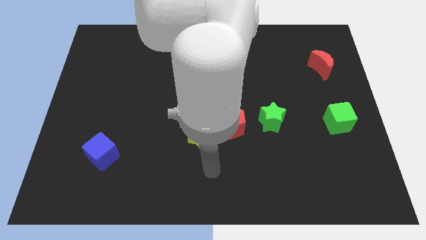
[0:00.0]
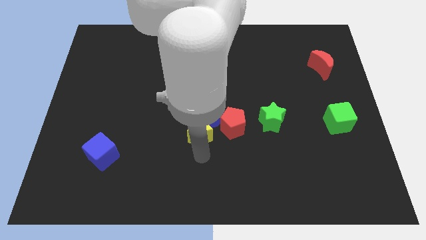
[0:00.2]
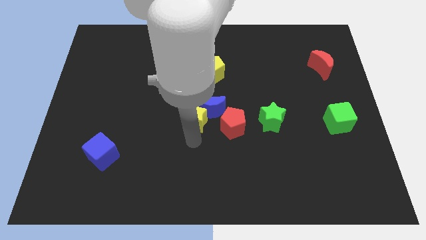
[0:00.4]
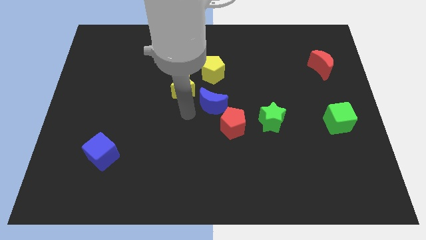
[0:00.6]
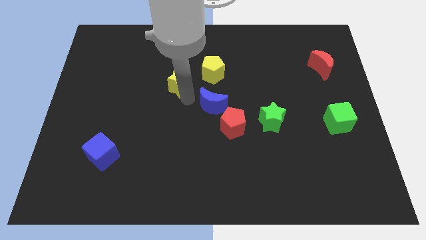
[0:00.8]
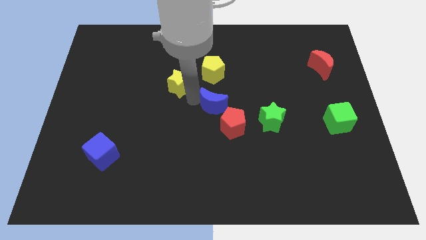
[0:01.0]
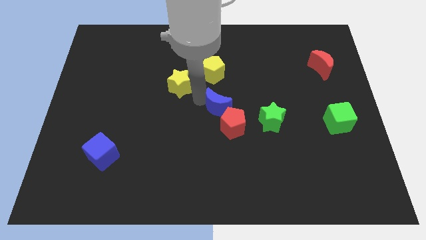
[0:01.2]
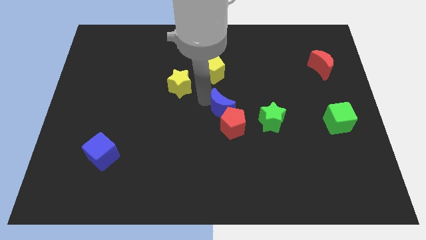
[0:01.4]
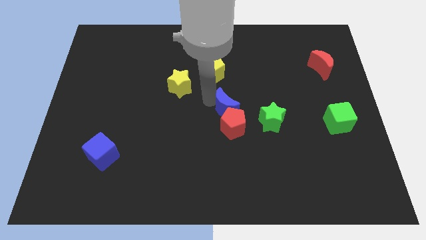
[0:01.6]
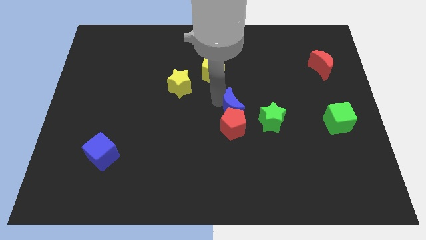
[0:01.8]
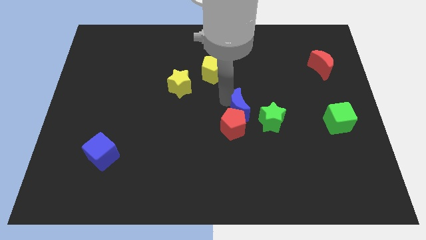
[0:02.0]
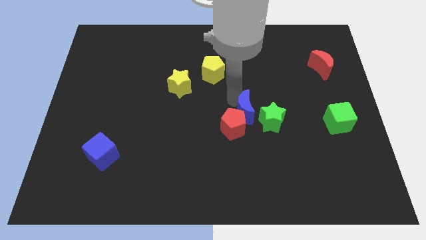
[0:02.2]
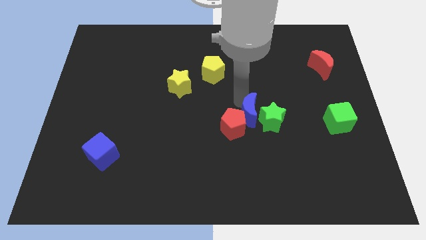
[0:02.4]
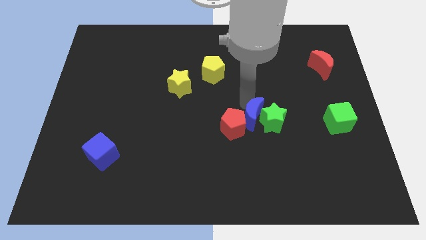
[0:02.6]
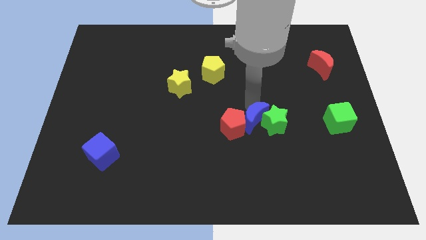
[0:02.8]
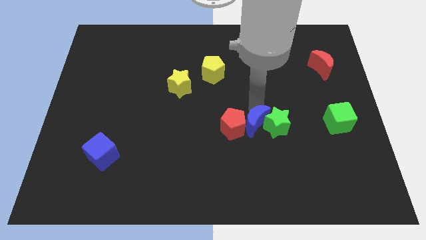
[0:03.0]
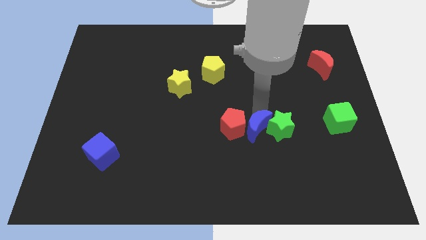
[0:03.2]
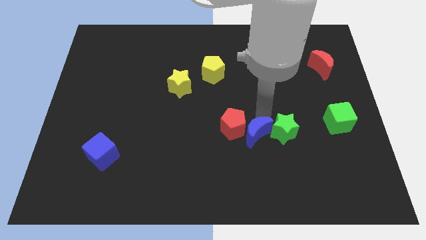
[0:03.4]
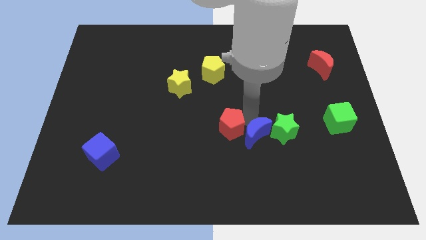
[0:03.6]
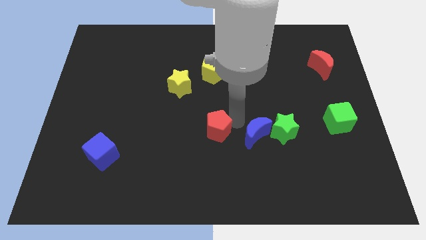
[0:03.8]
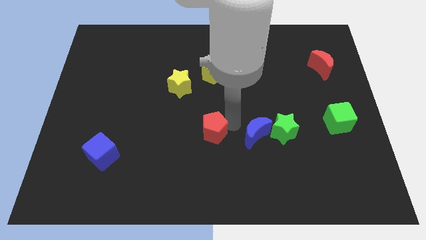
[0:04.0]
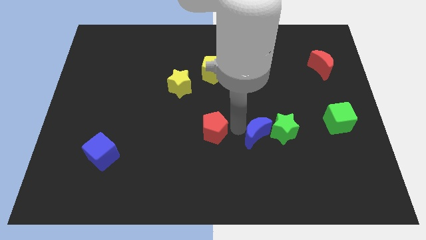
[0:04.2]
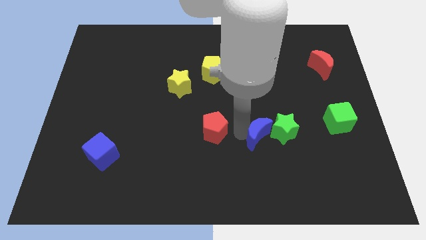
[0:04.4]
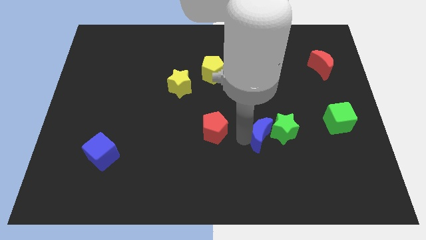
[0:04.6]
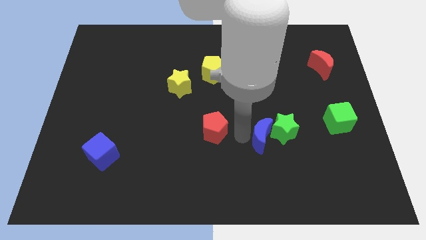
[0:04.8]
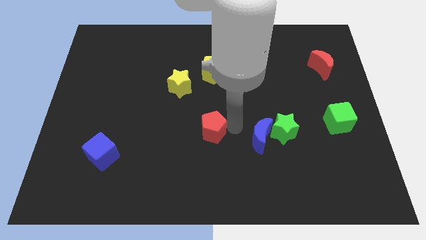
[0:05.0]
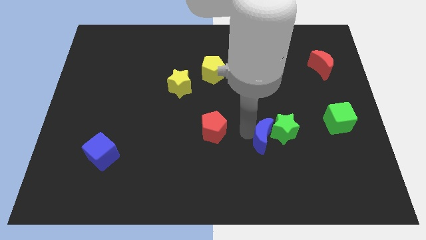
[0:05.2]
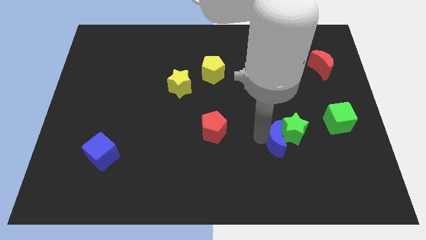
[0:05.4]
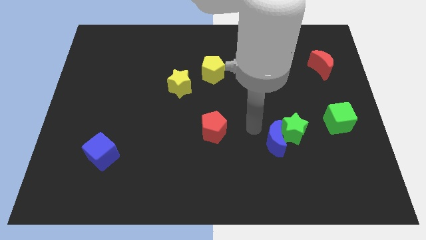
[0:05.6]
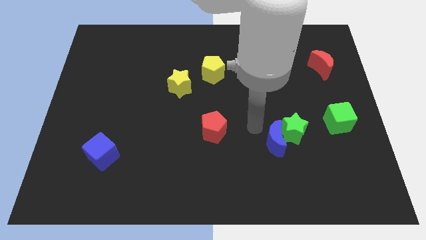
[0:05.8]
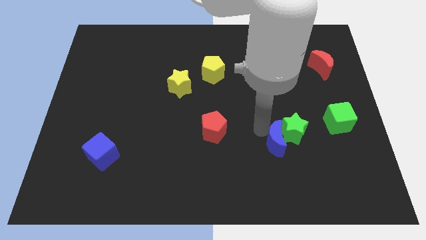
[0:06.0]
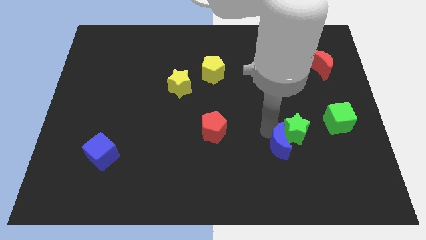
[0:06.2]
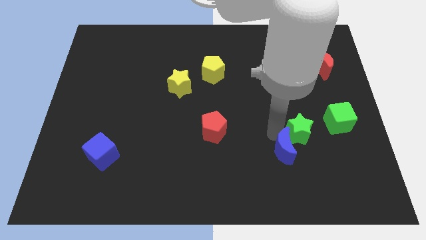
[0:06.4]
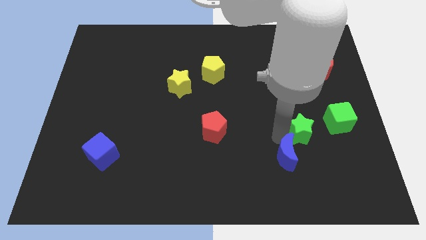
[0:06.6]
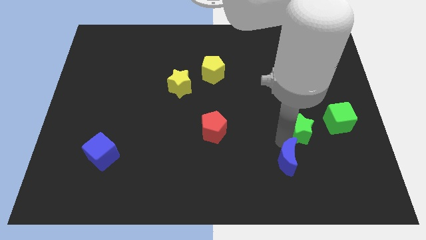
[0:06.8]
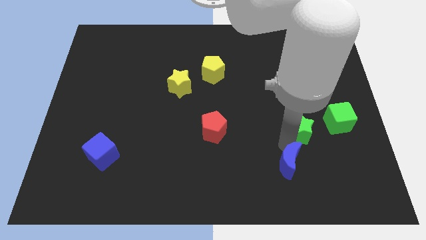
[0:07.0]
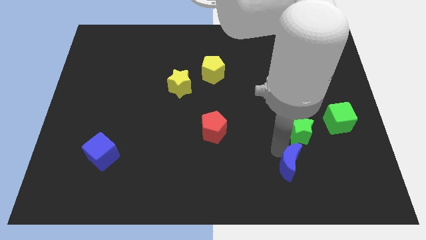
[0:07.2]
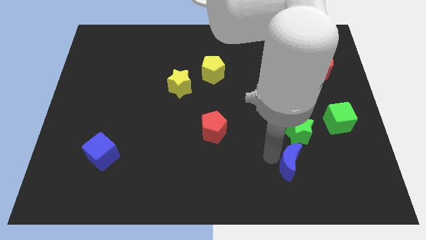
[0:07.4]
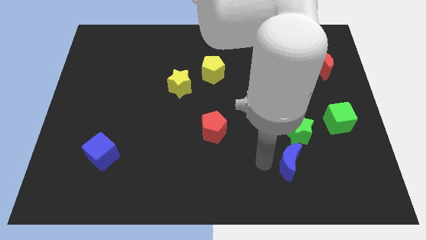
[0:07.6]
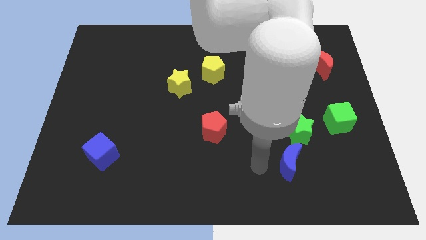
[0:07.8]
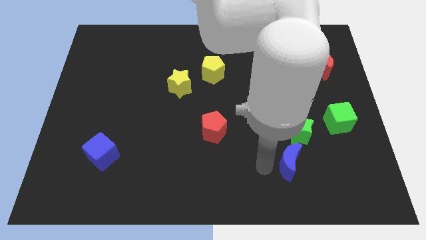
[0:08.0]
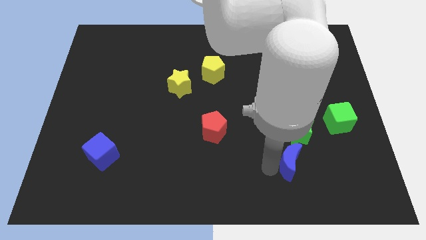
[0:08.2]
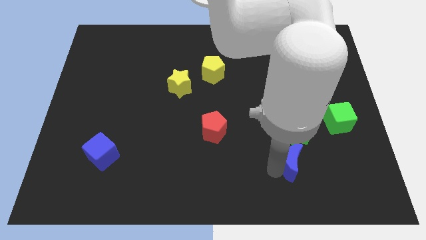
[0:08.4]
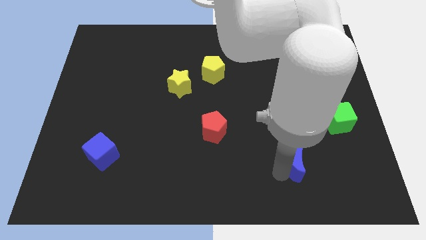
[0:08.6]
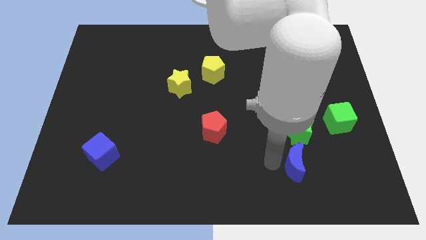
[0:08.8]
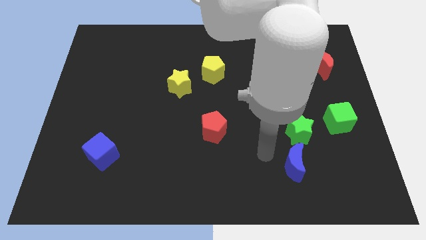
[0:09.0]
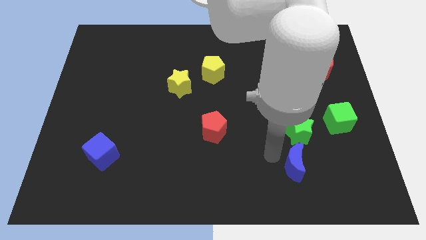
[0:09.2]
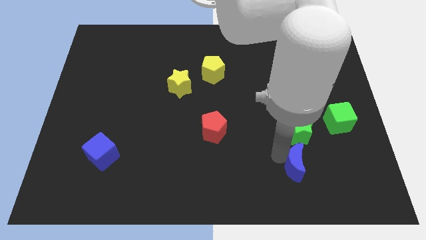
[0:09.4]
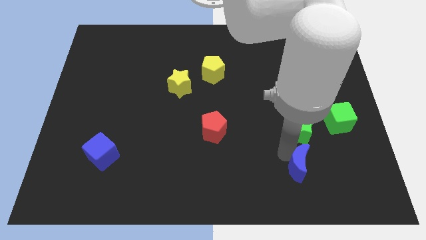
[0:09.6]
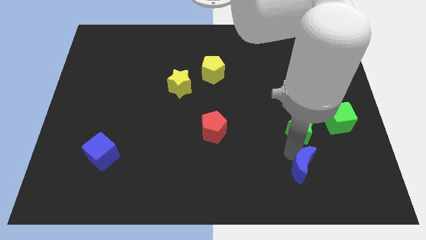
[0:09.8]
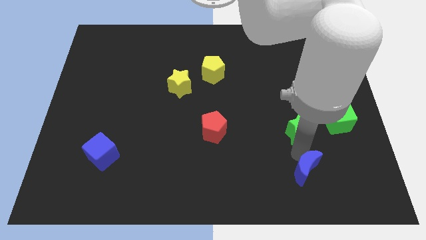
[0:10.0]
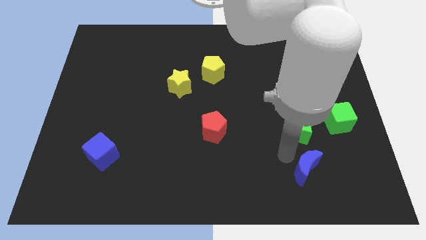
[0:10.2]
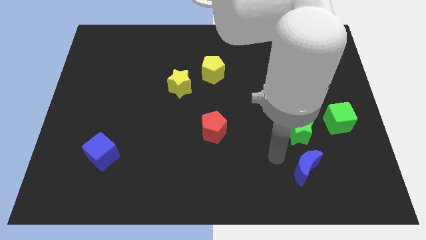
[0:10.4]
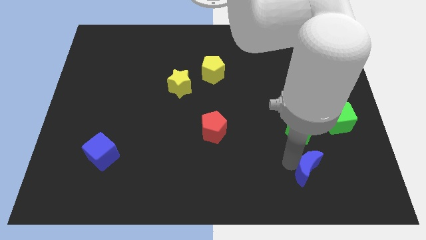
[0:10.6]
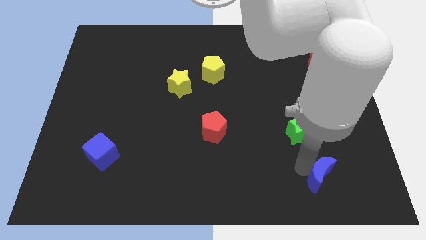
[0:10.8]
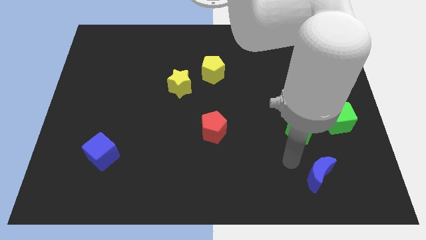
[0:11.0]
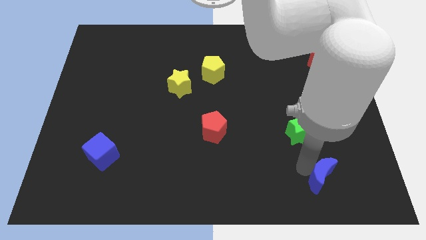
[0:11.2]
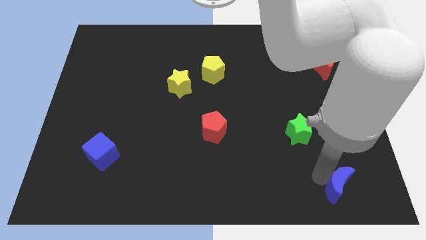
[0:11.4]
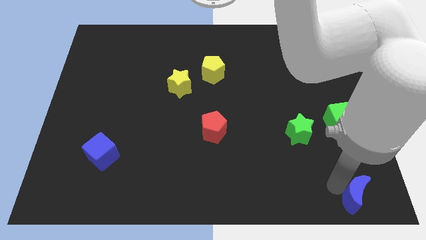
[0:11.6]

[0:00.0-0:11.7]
push the blue moon to the bottom right corner

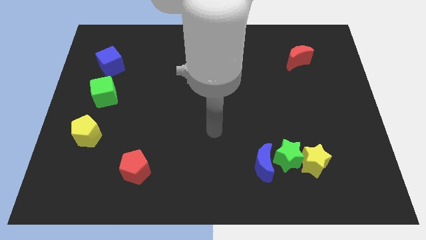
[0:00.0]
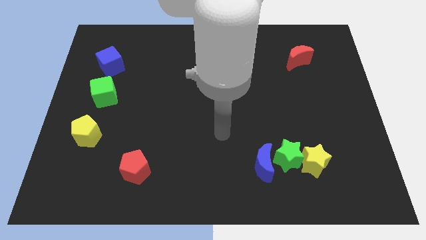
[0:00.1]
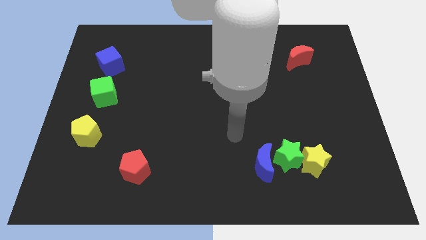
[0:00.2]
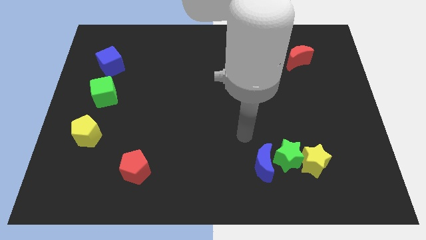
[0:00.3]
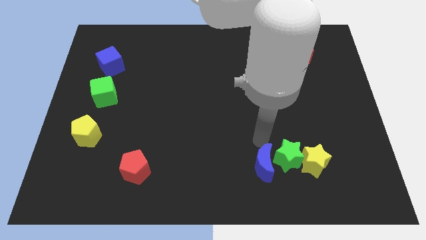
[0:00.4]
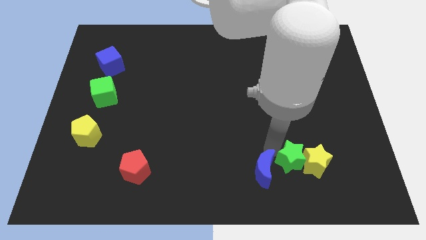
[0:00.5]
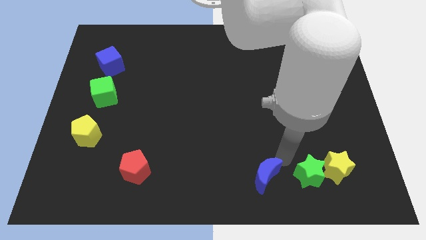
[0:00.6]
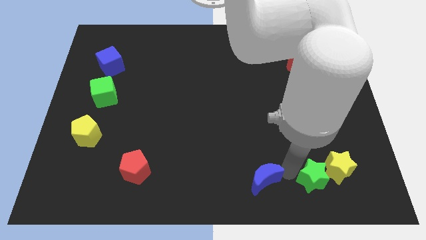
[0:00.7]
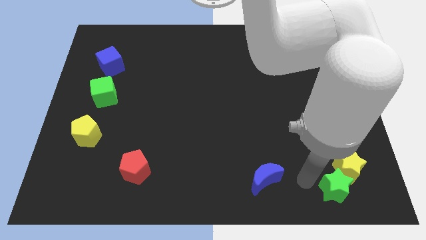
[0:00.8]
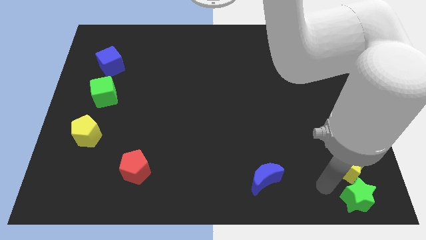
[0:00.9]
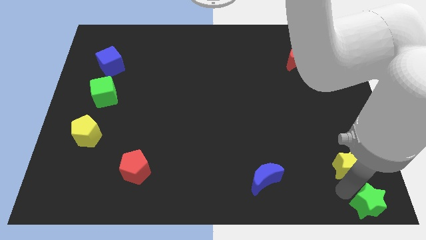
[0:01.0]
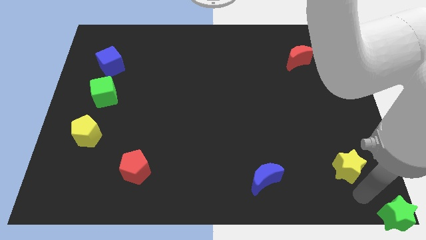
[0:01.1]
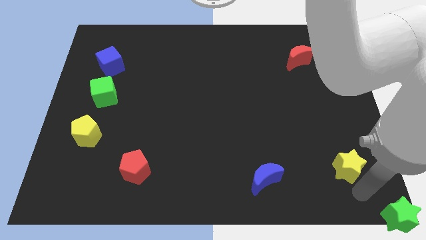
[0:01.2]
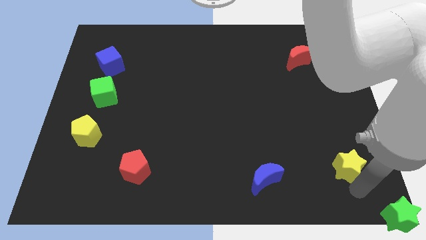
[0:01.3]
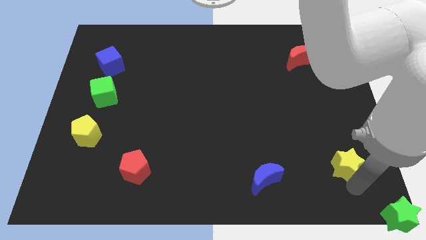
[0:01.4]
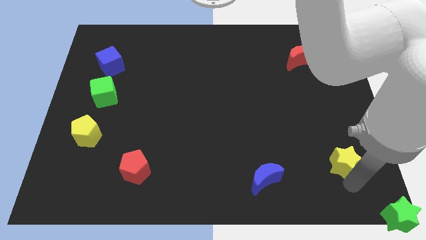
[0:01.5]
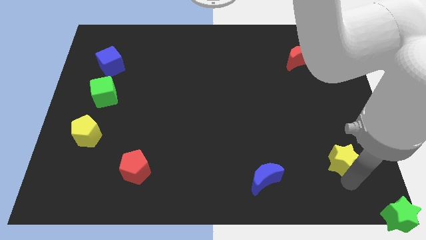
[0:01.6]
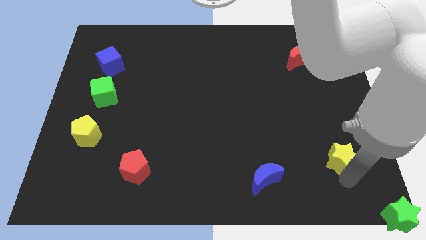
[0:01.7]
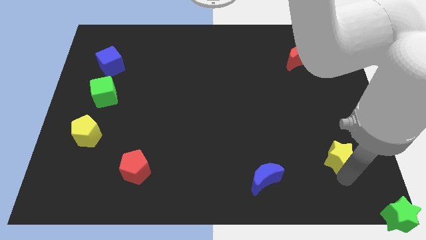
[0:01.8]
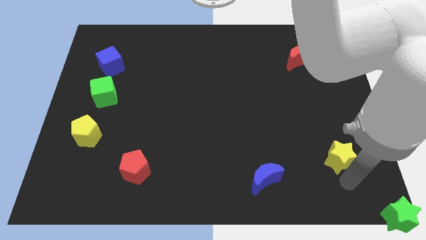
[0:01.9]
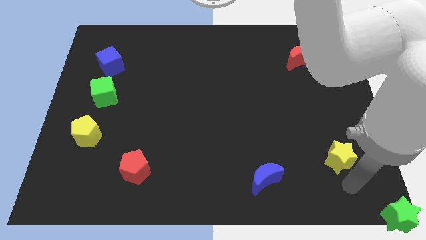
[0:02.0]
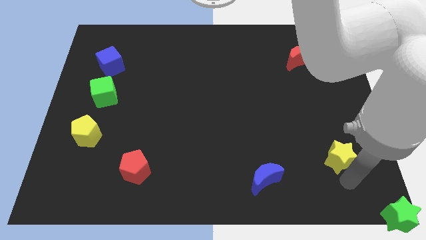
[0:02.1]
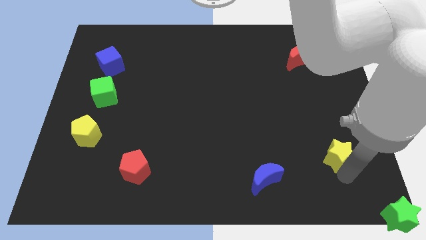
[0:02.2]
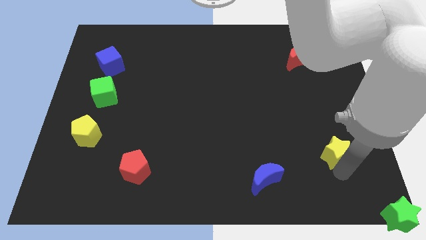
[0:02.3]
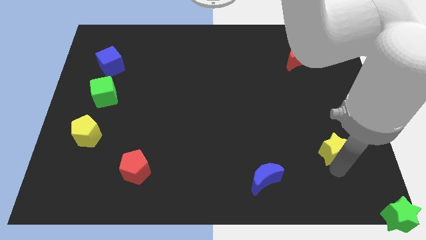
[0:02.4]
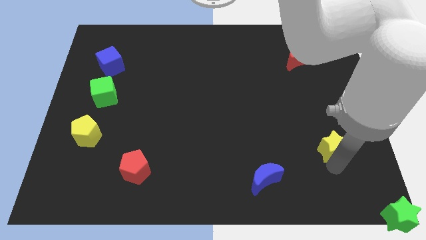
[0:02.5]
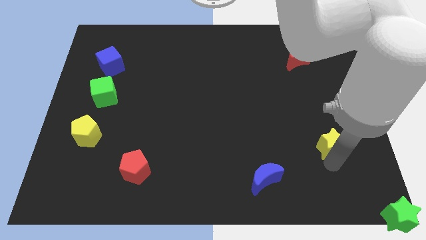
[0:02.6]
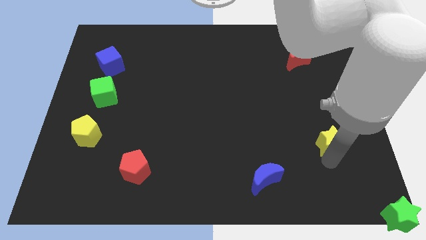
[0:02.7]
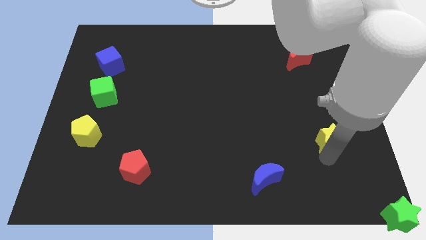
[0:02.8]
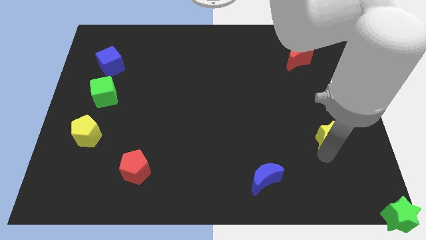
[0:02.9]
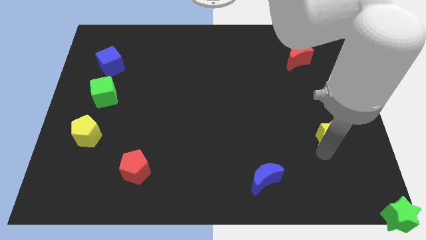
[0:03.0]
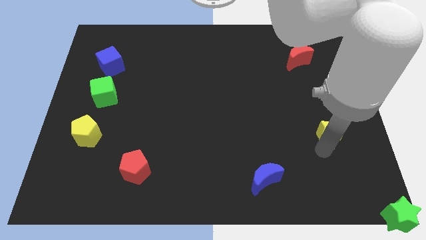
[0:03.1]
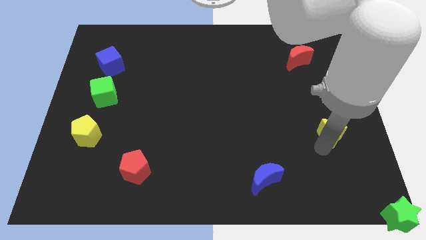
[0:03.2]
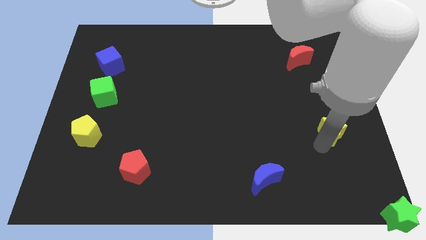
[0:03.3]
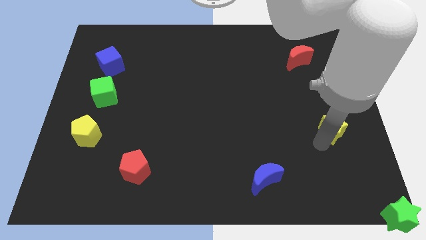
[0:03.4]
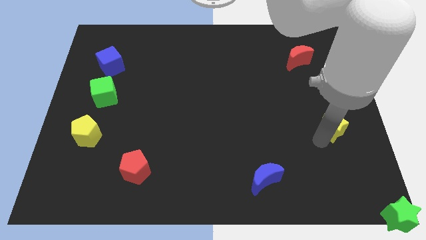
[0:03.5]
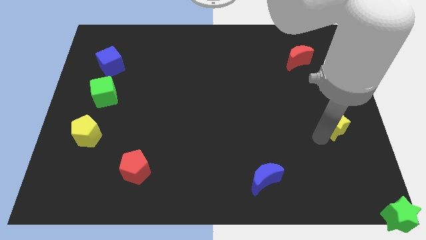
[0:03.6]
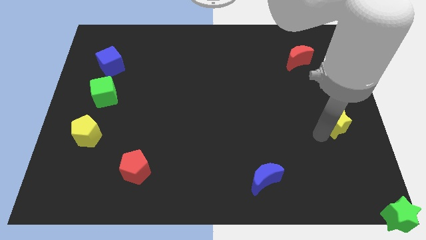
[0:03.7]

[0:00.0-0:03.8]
move the yellow star to the right side
